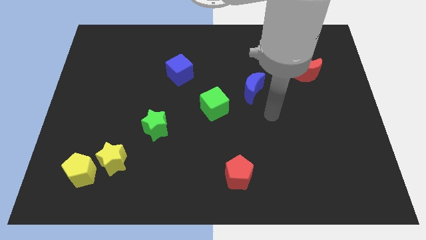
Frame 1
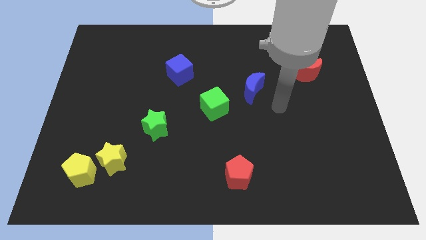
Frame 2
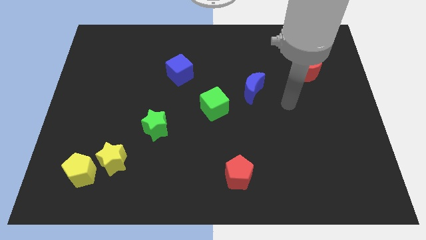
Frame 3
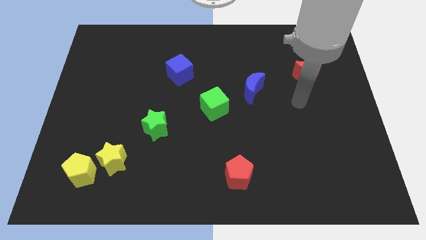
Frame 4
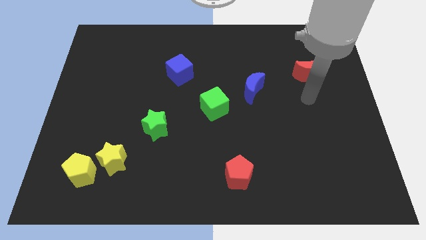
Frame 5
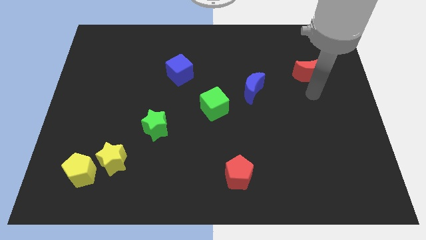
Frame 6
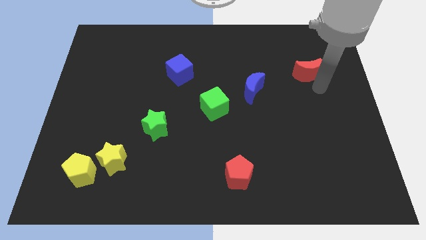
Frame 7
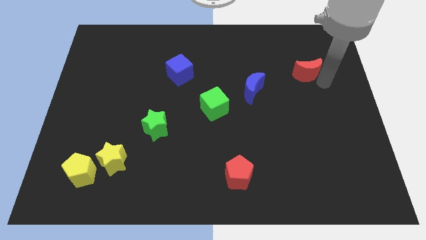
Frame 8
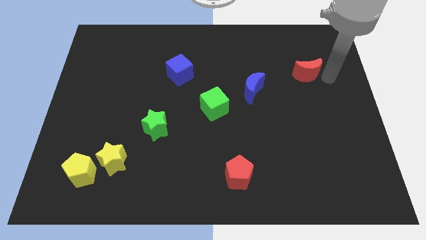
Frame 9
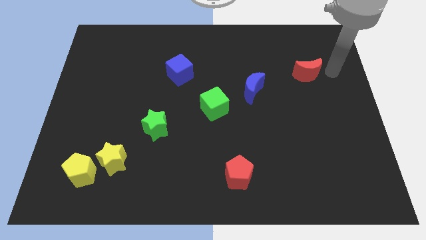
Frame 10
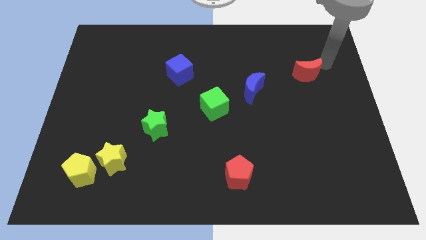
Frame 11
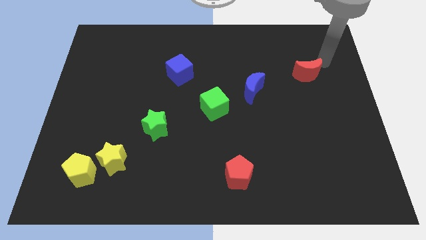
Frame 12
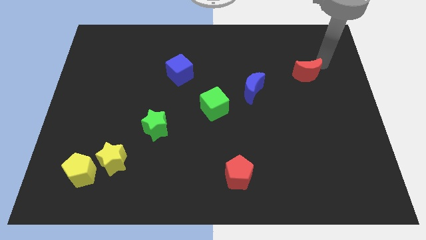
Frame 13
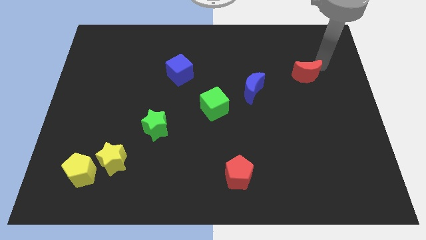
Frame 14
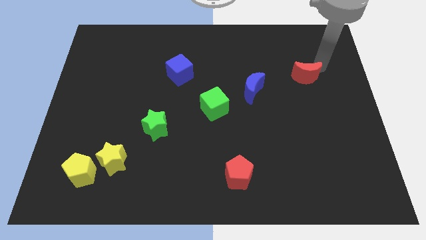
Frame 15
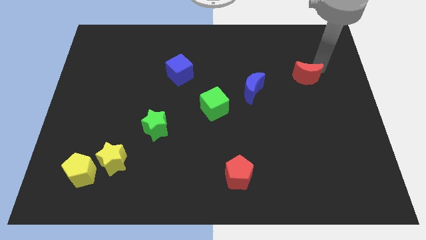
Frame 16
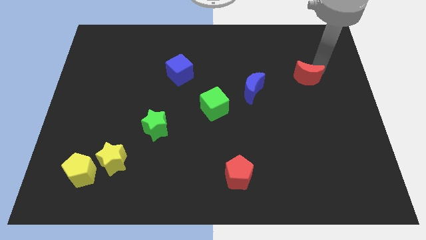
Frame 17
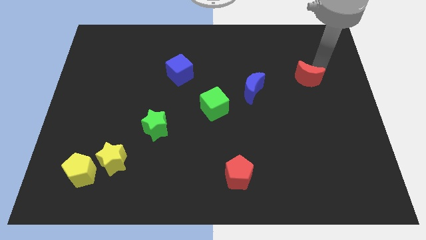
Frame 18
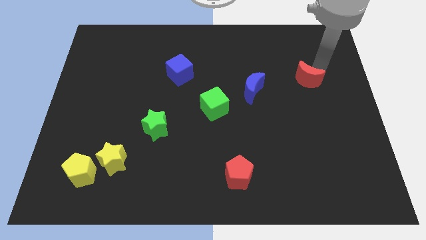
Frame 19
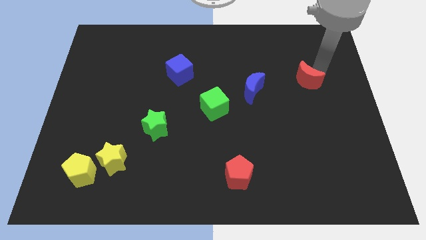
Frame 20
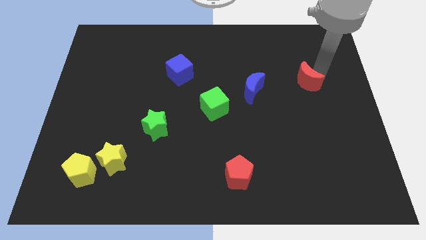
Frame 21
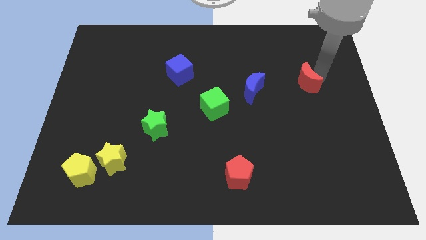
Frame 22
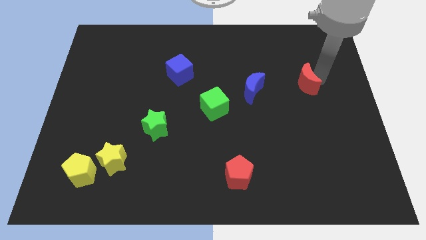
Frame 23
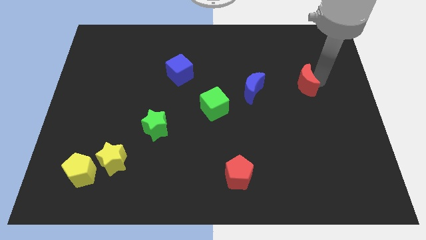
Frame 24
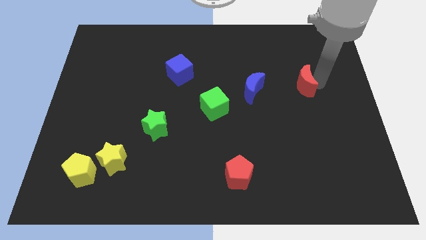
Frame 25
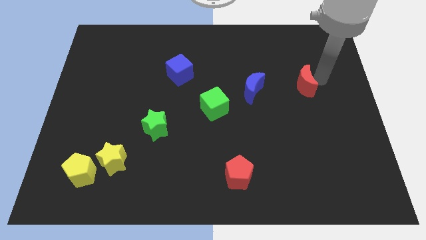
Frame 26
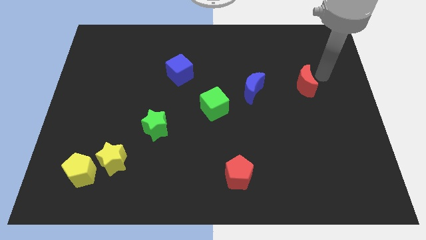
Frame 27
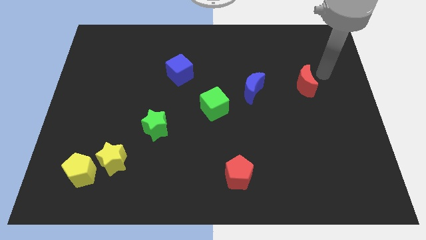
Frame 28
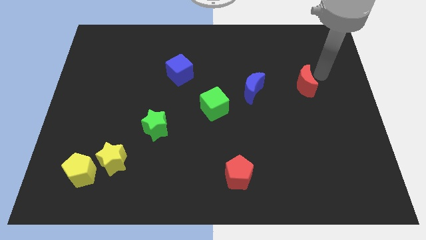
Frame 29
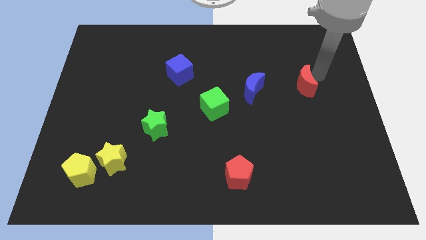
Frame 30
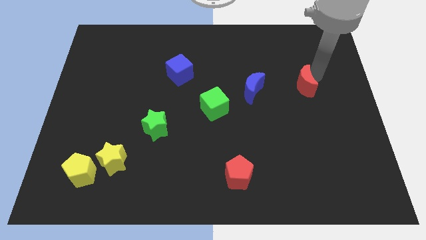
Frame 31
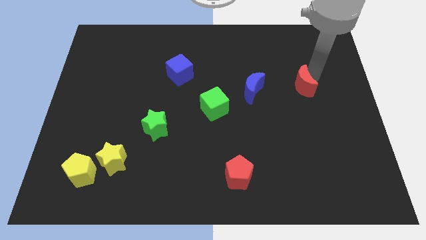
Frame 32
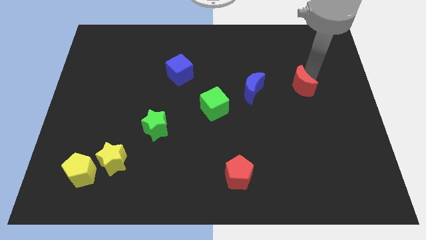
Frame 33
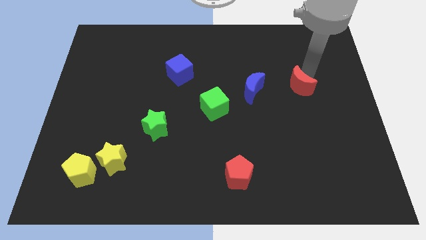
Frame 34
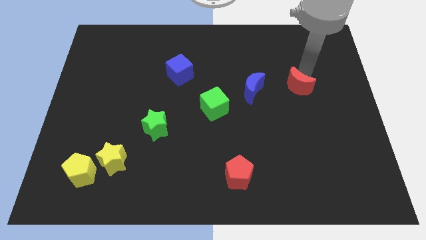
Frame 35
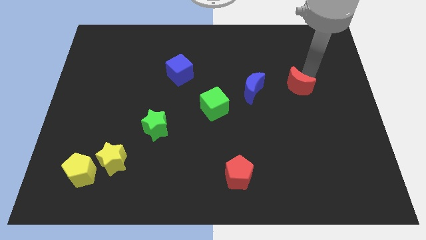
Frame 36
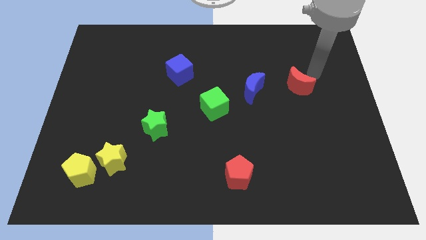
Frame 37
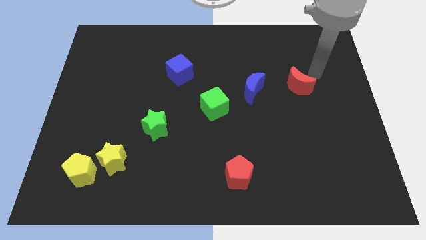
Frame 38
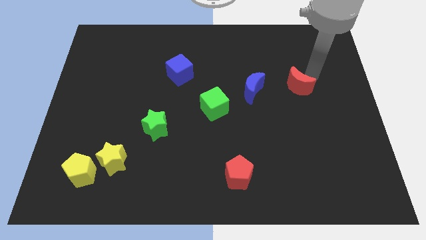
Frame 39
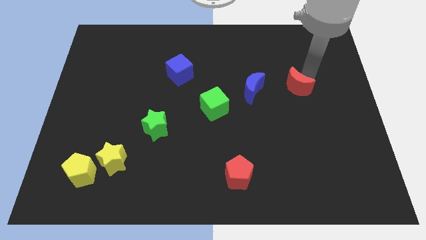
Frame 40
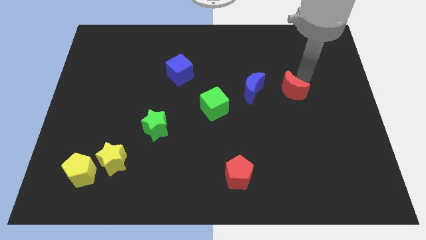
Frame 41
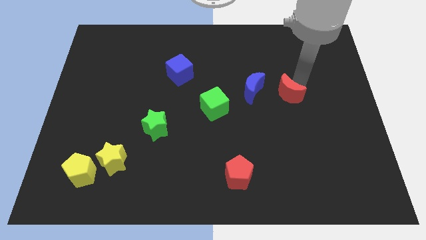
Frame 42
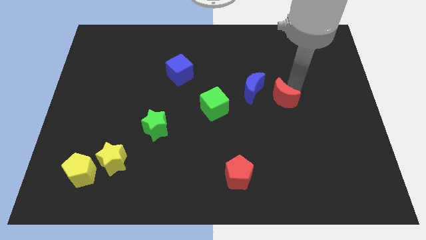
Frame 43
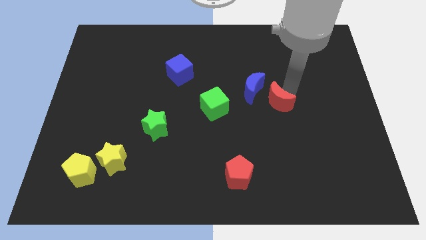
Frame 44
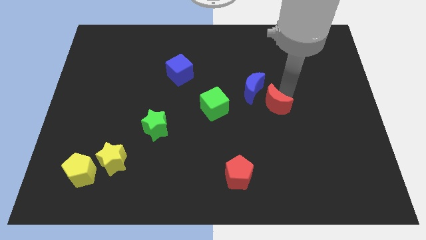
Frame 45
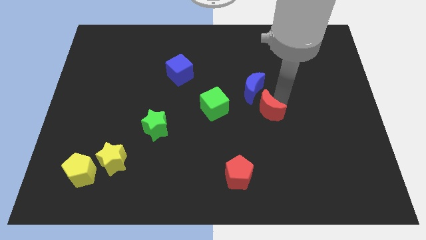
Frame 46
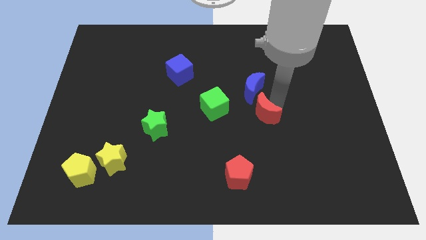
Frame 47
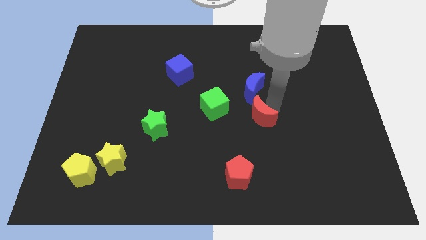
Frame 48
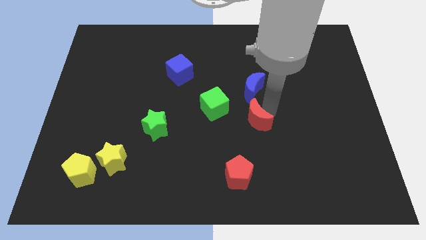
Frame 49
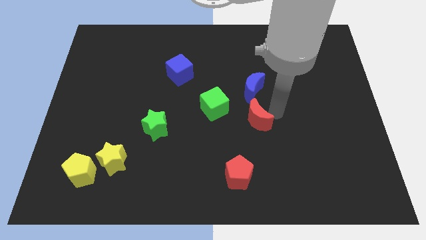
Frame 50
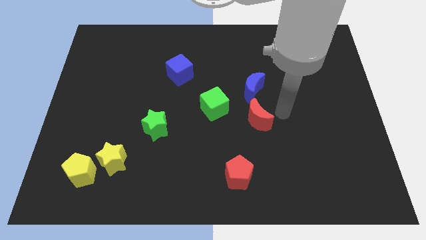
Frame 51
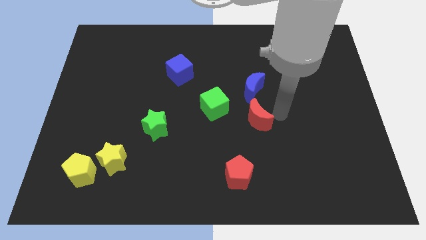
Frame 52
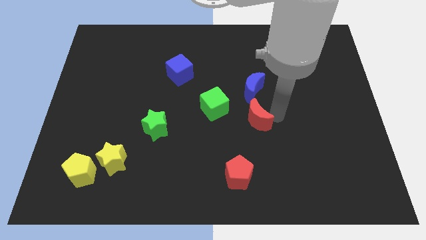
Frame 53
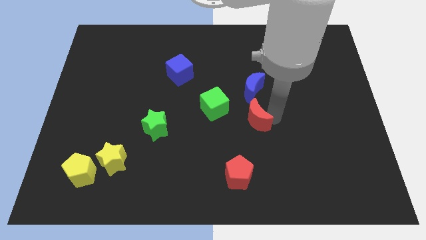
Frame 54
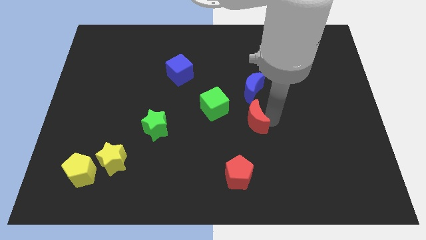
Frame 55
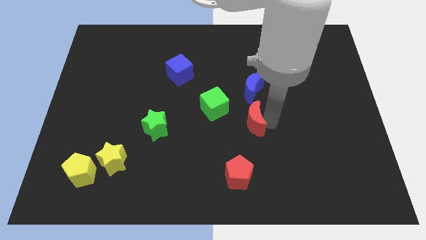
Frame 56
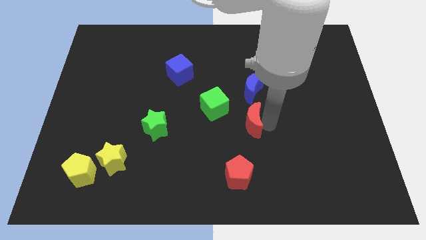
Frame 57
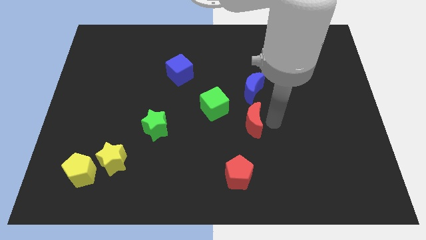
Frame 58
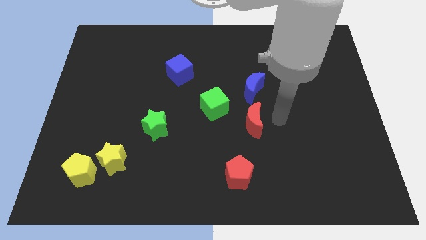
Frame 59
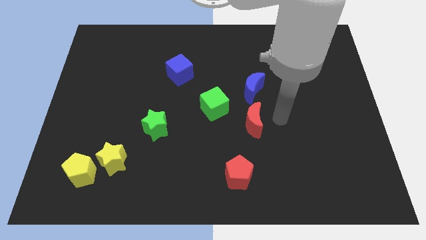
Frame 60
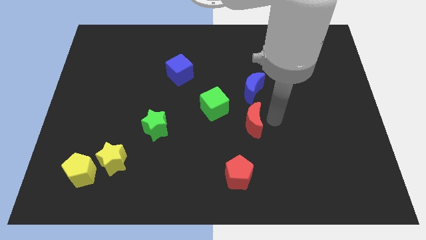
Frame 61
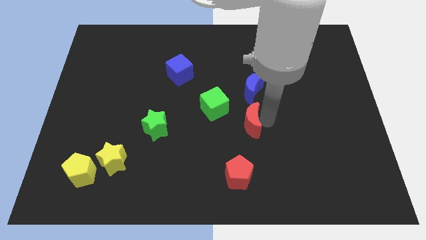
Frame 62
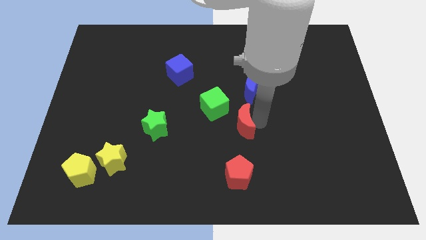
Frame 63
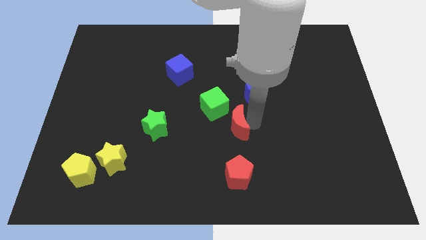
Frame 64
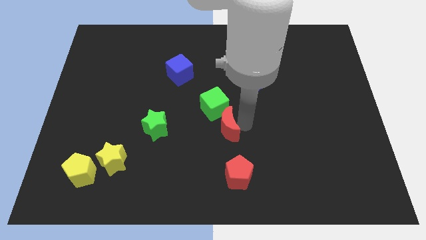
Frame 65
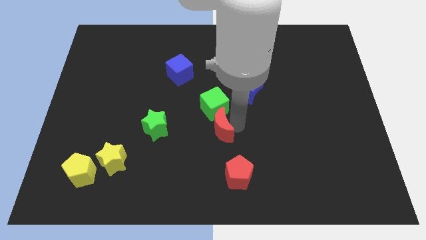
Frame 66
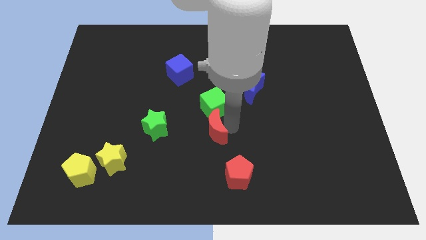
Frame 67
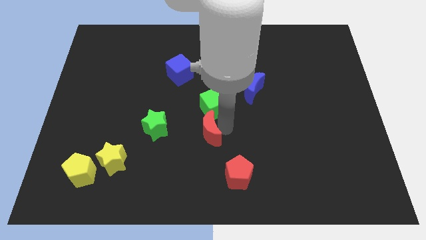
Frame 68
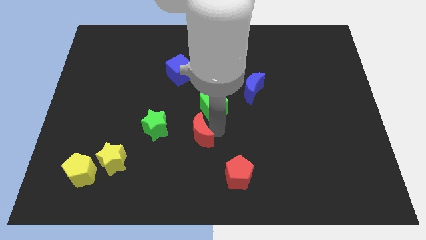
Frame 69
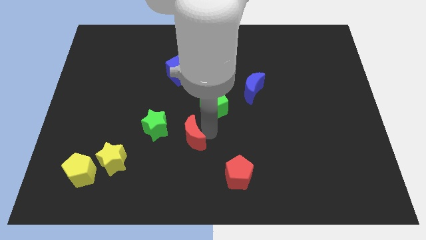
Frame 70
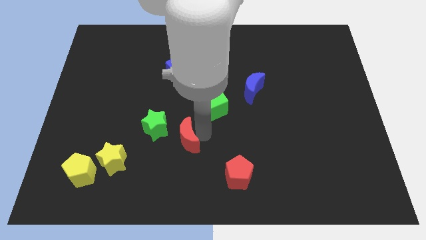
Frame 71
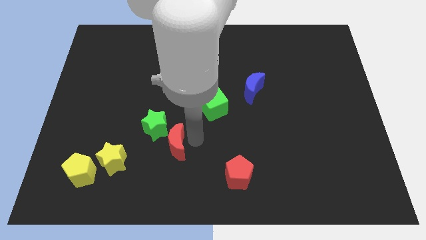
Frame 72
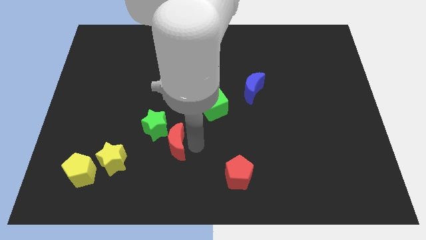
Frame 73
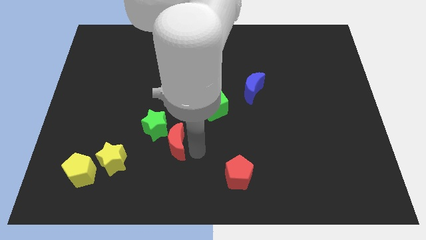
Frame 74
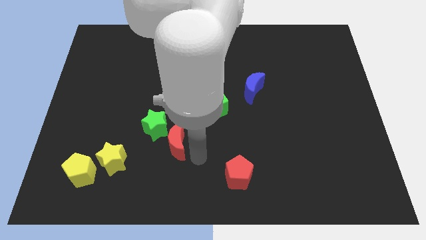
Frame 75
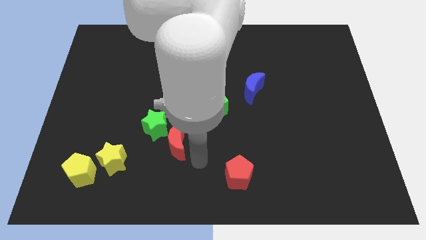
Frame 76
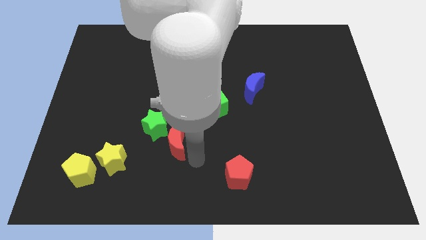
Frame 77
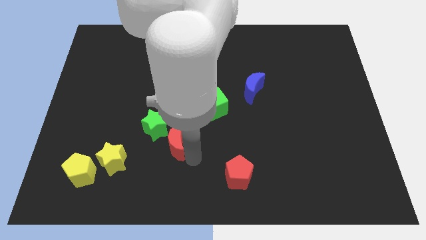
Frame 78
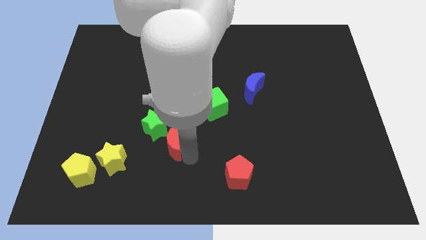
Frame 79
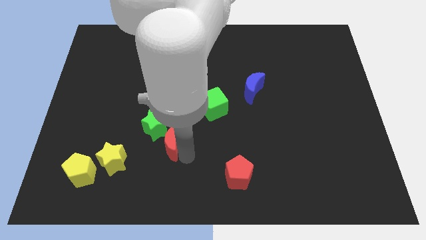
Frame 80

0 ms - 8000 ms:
push the red moon towards the green star
